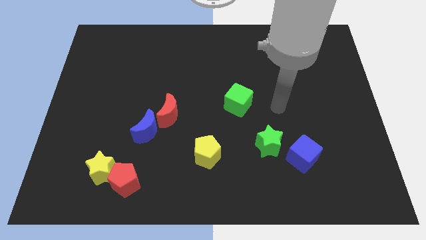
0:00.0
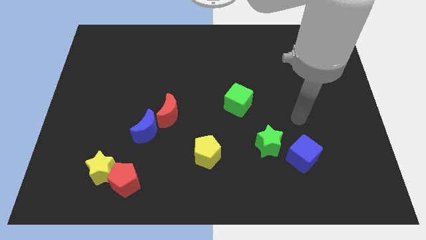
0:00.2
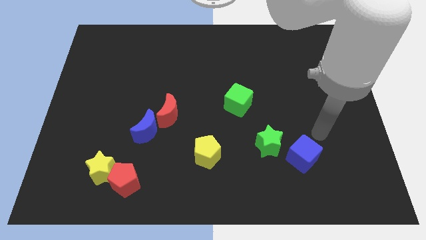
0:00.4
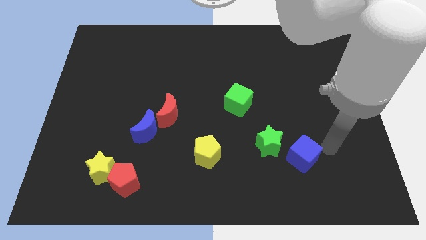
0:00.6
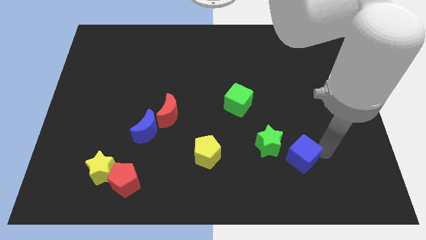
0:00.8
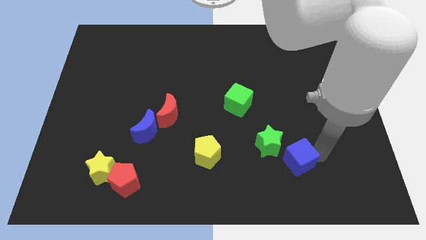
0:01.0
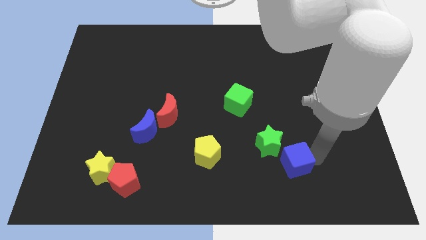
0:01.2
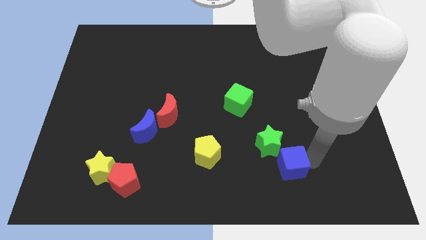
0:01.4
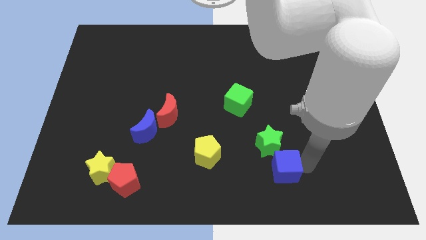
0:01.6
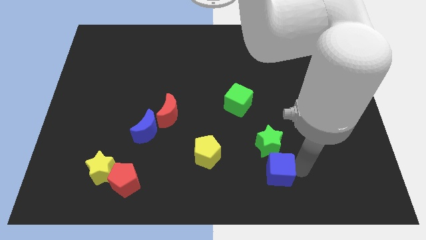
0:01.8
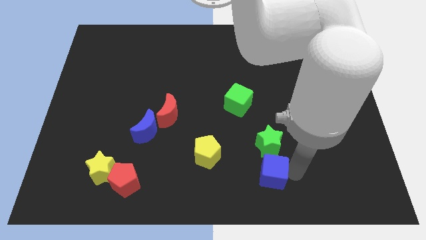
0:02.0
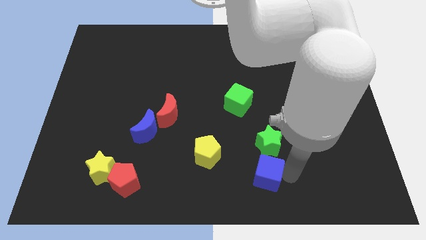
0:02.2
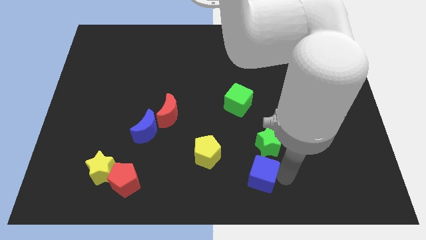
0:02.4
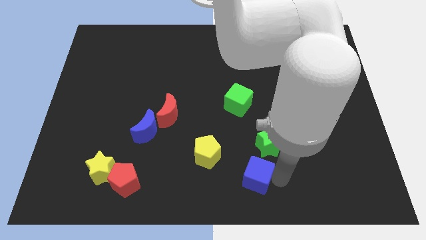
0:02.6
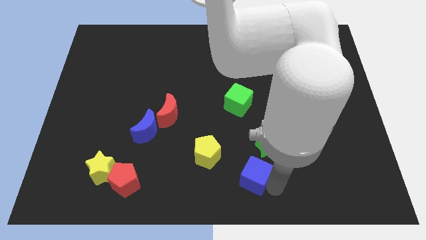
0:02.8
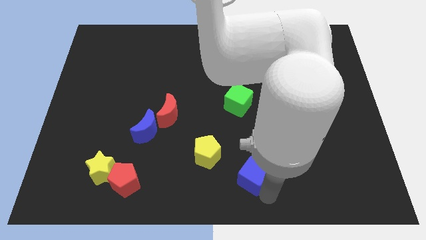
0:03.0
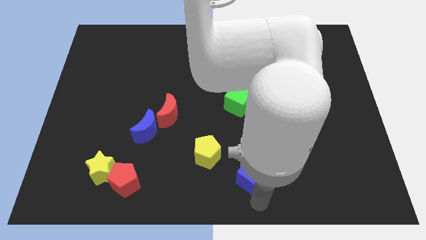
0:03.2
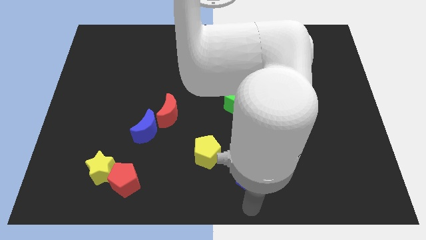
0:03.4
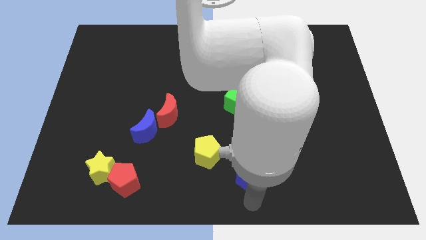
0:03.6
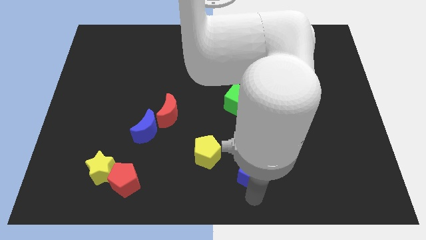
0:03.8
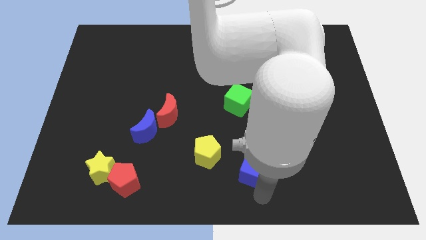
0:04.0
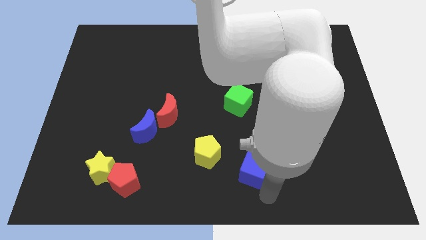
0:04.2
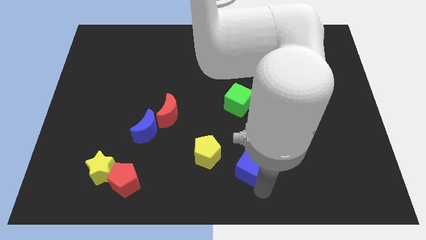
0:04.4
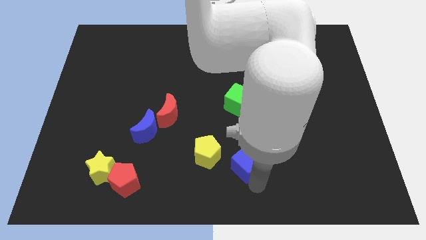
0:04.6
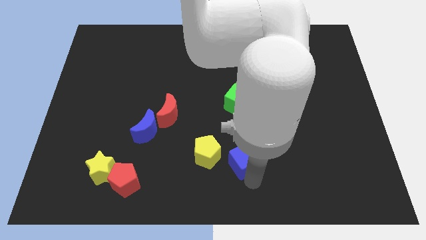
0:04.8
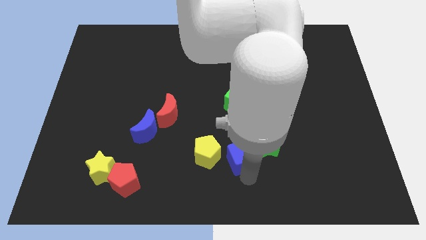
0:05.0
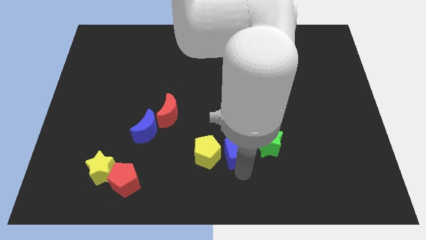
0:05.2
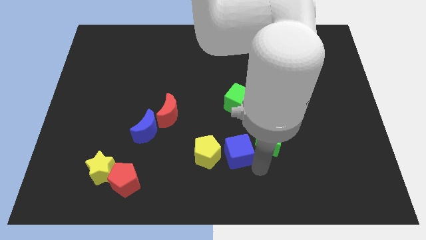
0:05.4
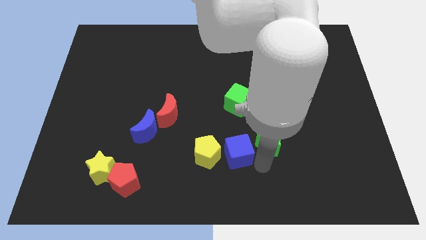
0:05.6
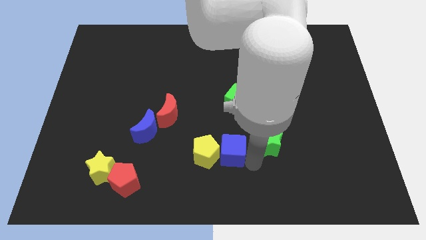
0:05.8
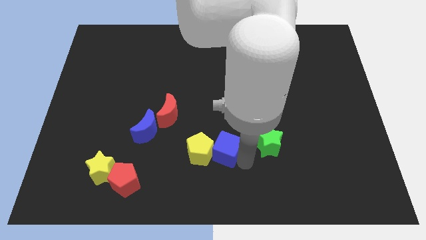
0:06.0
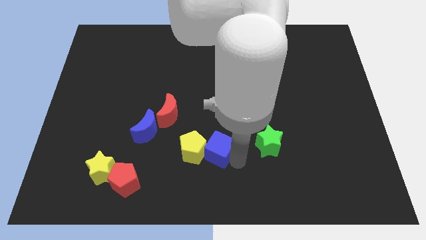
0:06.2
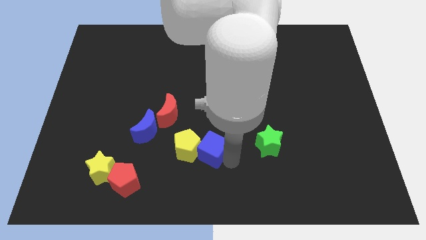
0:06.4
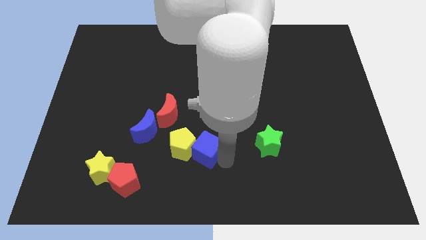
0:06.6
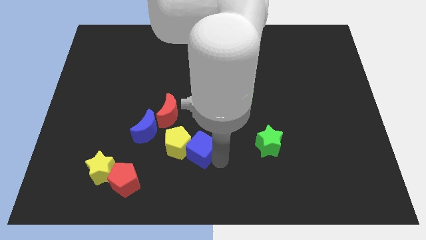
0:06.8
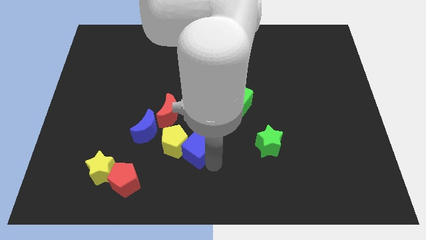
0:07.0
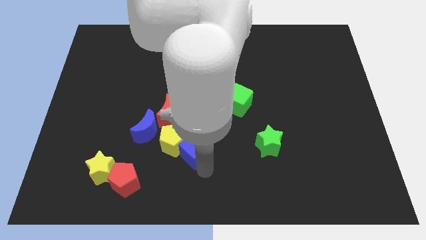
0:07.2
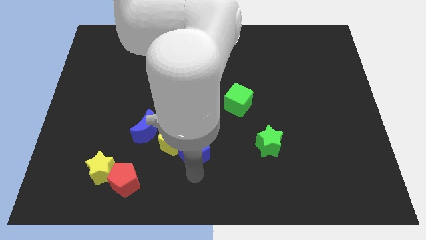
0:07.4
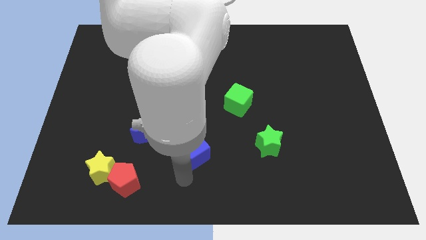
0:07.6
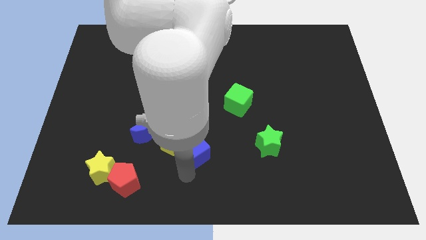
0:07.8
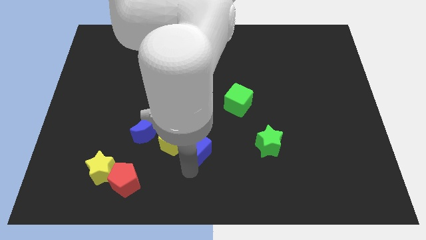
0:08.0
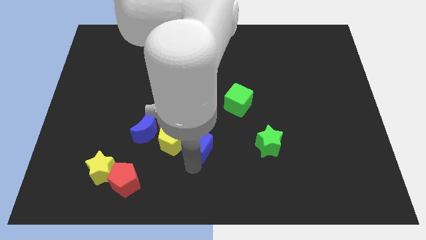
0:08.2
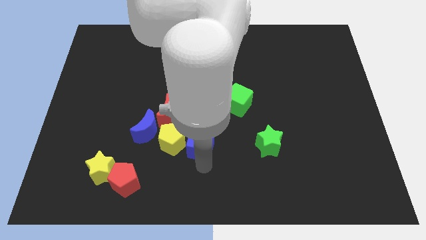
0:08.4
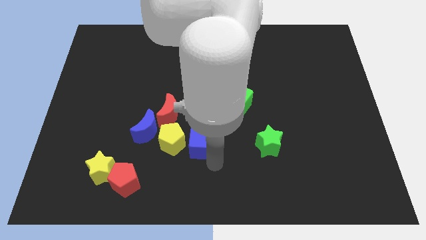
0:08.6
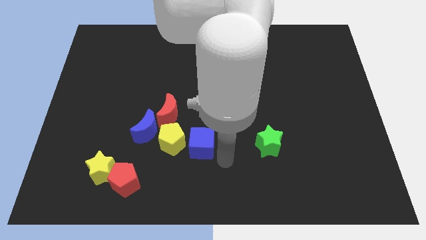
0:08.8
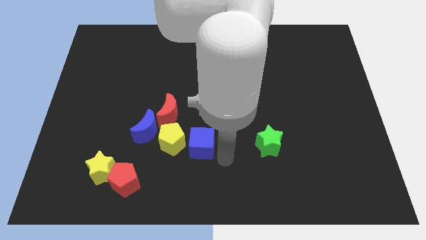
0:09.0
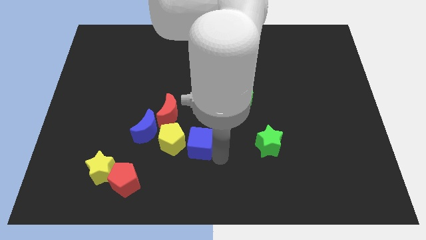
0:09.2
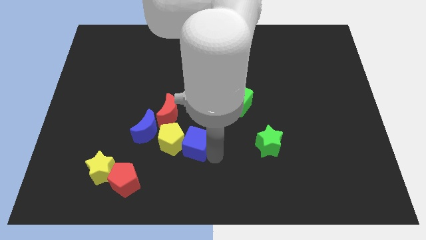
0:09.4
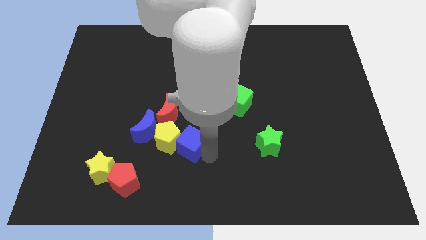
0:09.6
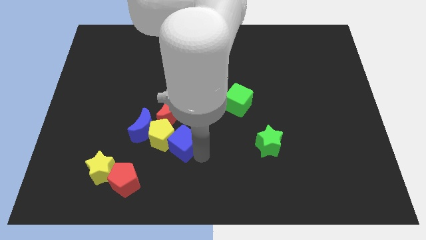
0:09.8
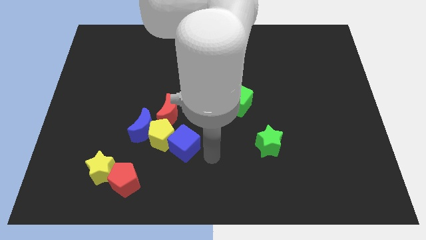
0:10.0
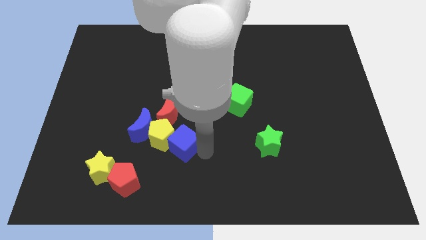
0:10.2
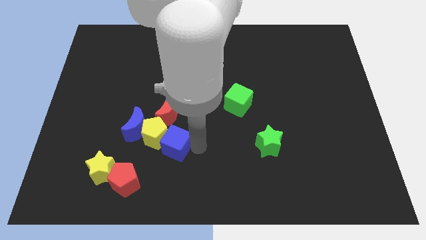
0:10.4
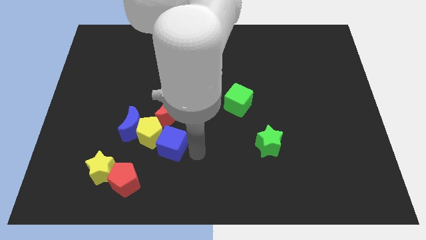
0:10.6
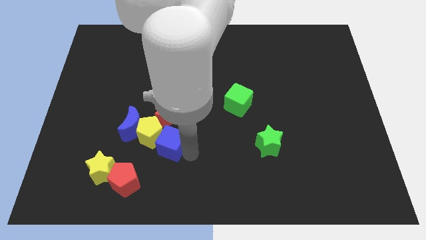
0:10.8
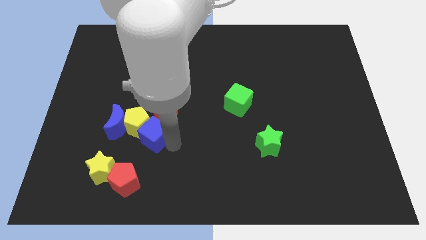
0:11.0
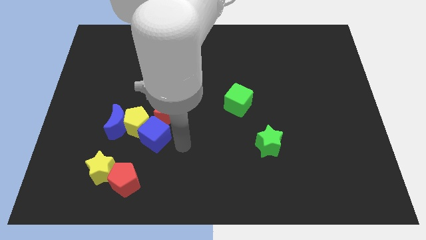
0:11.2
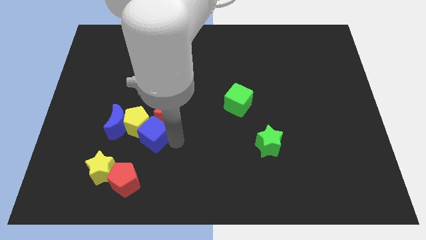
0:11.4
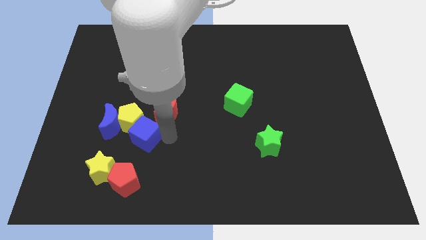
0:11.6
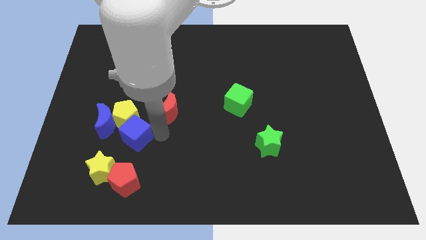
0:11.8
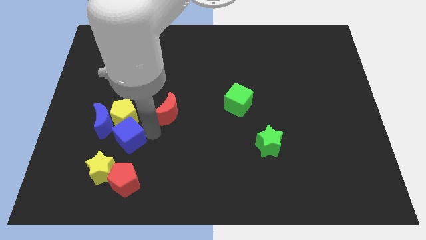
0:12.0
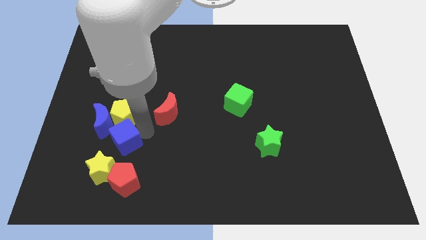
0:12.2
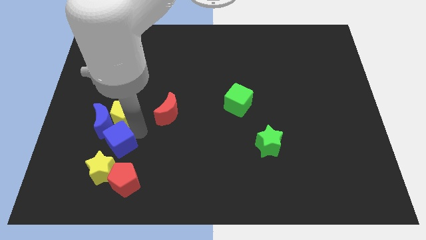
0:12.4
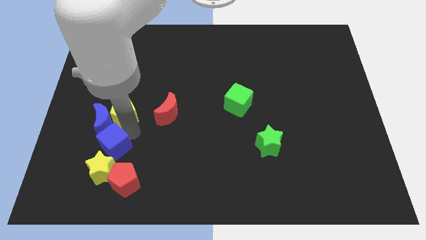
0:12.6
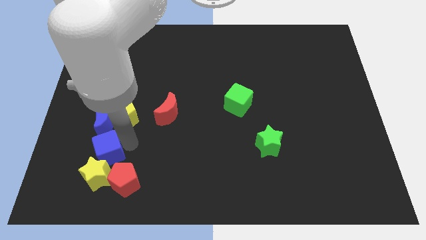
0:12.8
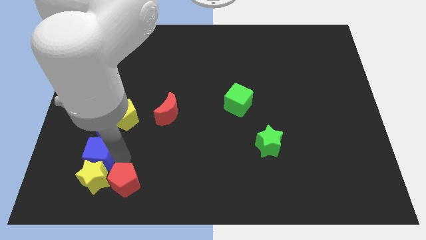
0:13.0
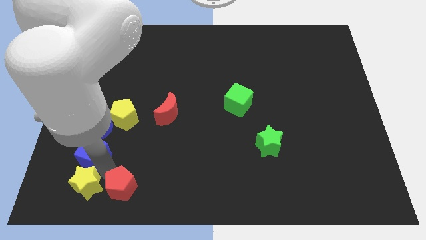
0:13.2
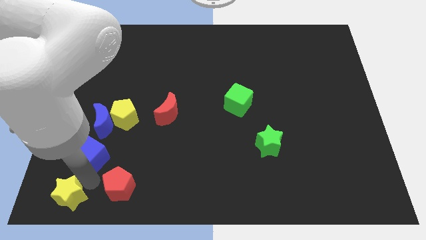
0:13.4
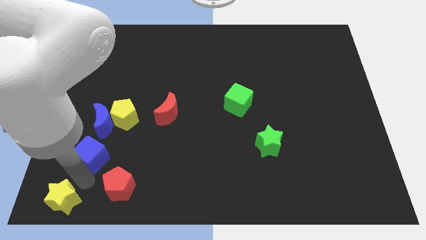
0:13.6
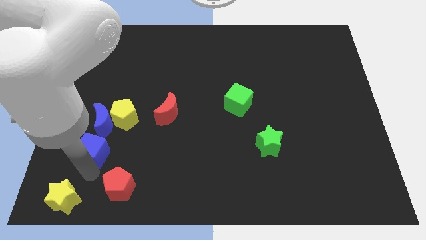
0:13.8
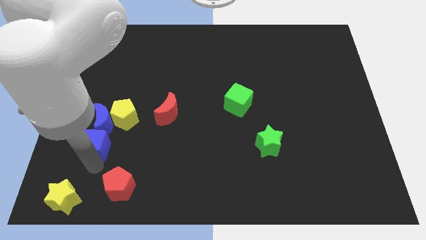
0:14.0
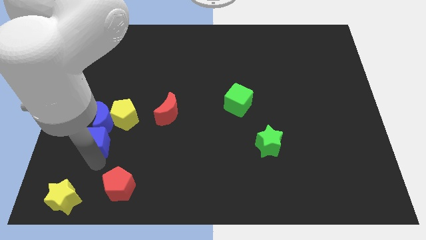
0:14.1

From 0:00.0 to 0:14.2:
push the blue cube next to the blue moon

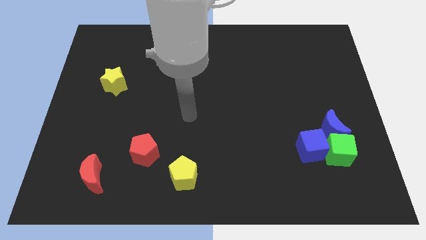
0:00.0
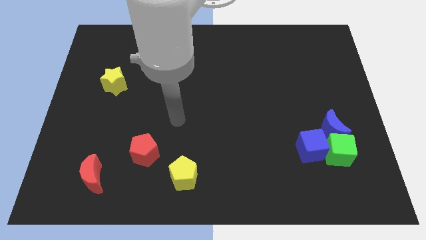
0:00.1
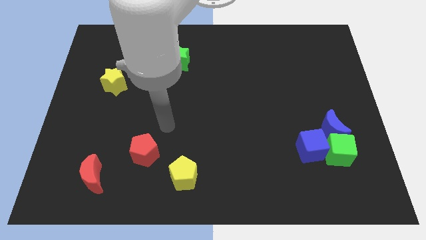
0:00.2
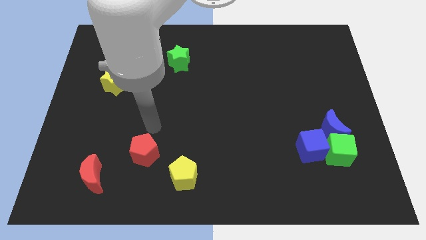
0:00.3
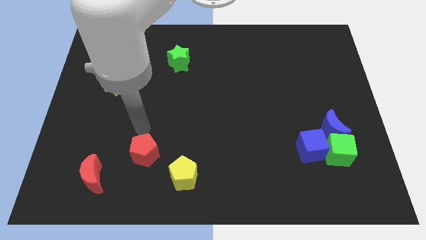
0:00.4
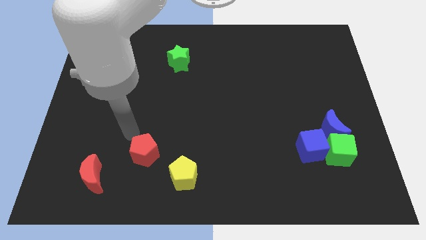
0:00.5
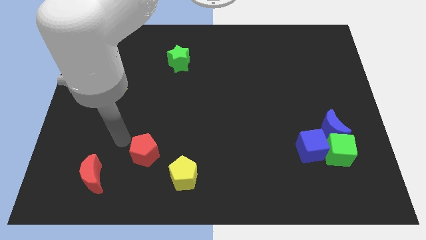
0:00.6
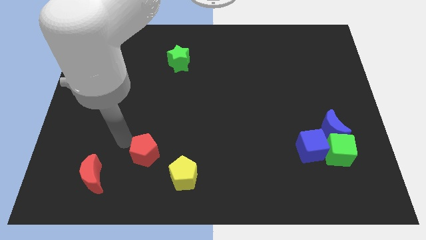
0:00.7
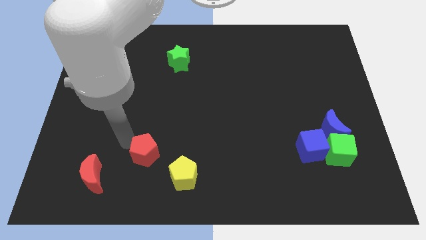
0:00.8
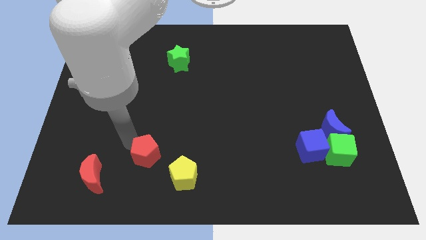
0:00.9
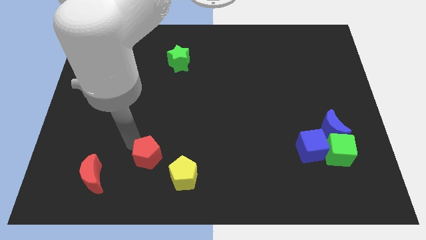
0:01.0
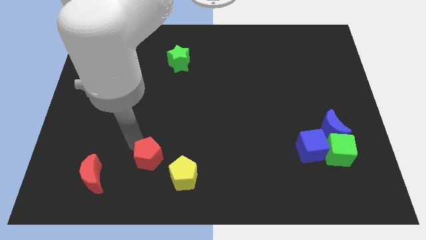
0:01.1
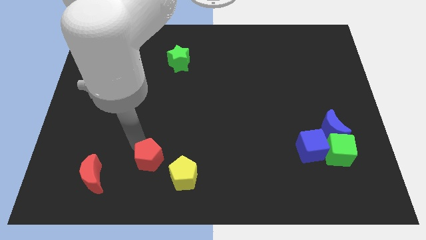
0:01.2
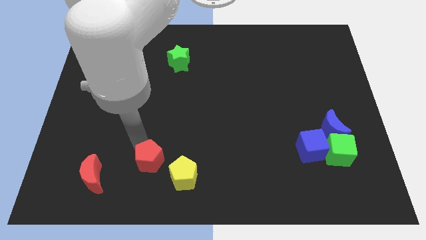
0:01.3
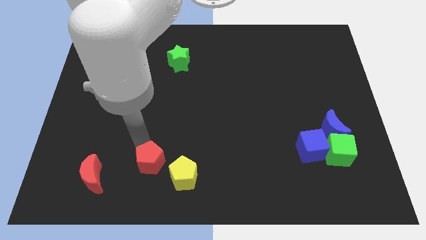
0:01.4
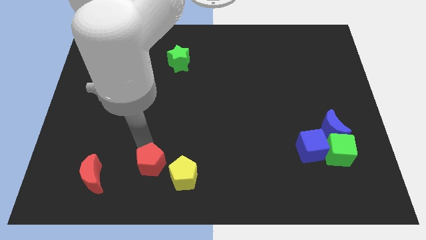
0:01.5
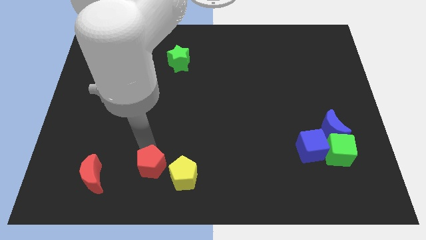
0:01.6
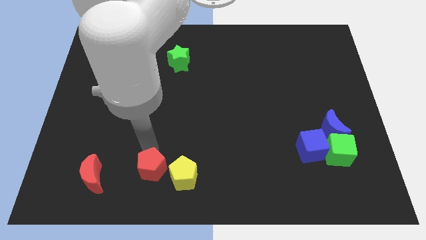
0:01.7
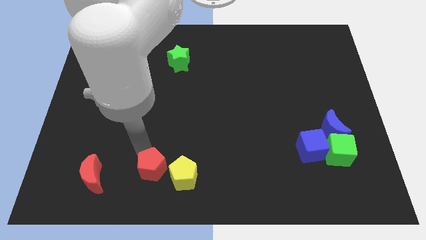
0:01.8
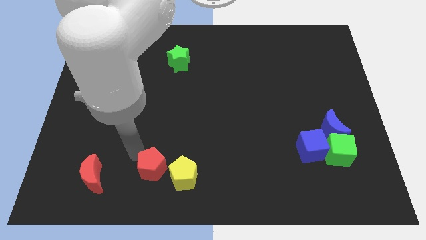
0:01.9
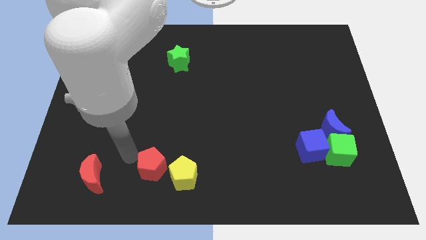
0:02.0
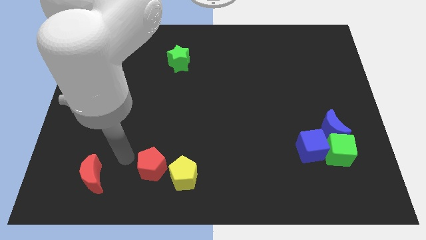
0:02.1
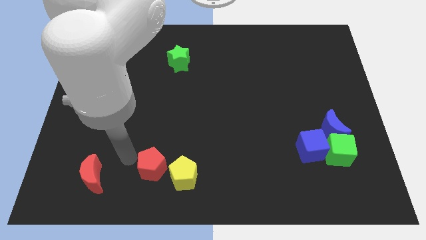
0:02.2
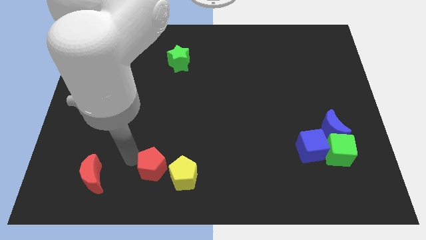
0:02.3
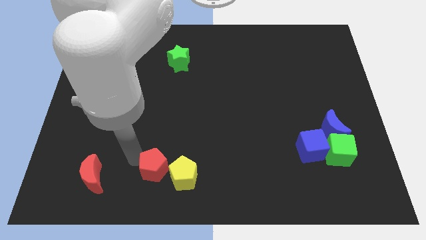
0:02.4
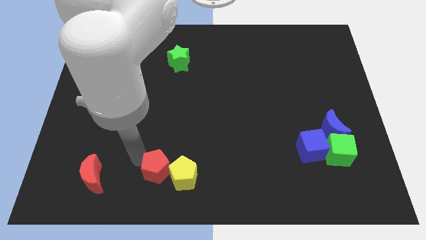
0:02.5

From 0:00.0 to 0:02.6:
slide the red pentagon close to the yellow pentagon
